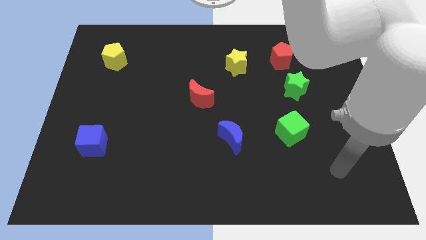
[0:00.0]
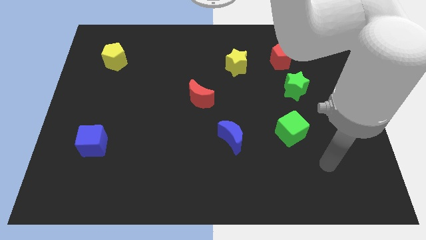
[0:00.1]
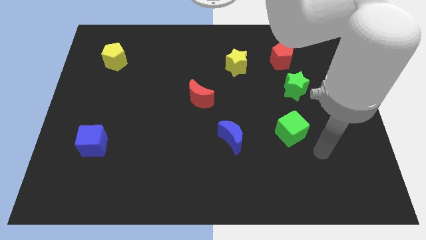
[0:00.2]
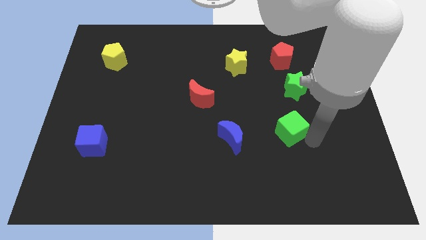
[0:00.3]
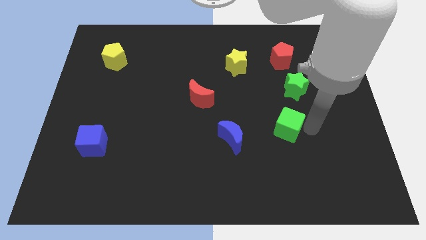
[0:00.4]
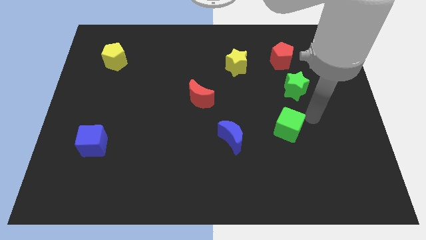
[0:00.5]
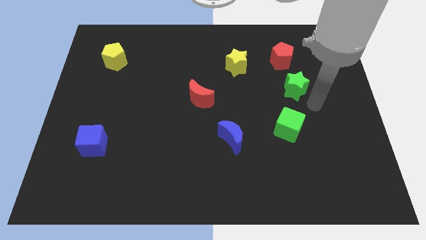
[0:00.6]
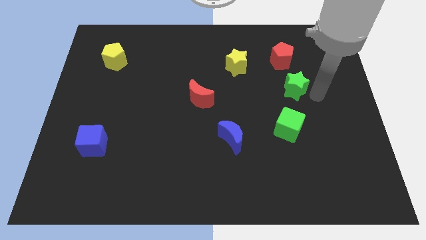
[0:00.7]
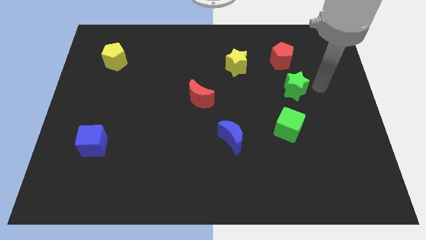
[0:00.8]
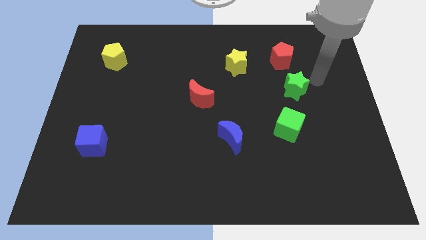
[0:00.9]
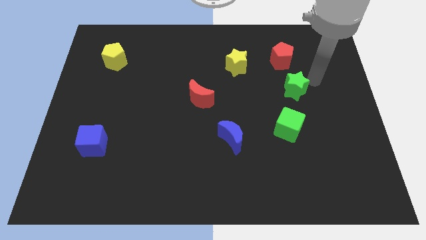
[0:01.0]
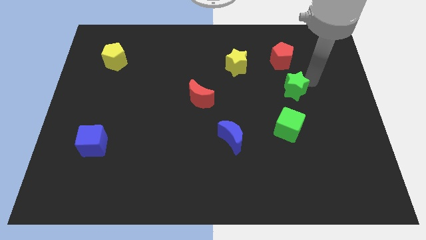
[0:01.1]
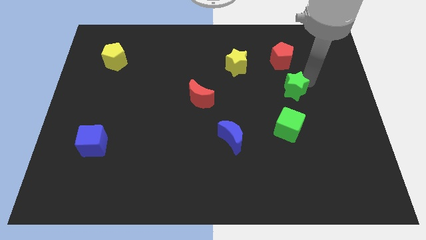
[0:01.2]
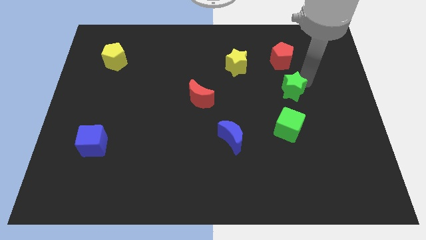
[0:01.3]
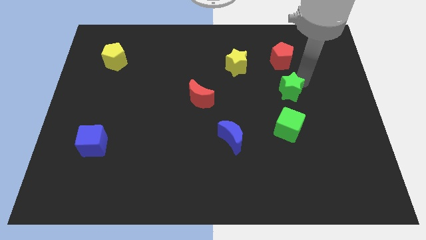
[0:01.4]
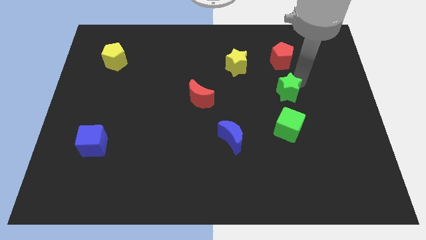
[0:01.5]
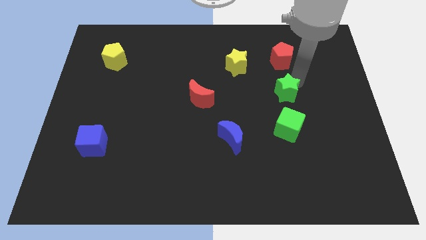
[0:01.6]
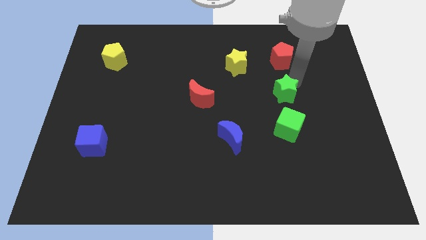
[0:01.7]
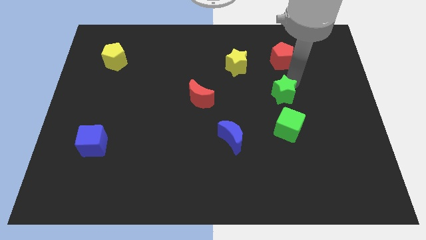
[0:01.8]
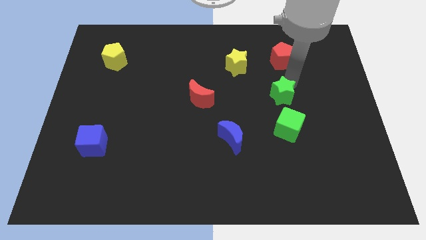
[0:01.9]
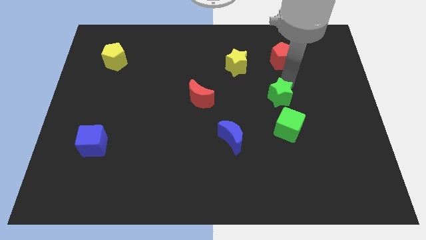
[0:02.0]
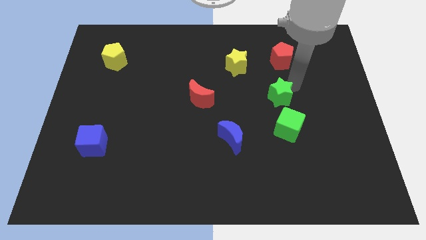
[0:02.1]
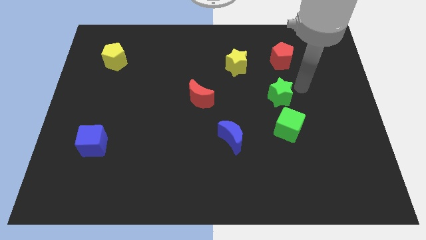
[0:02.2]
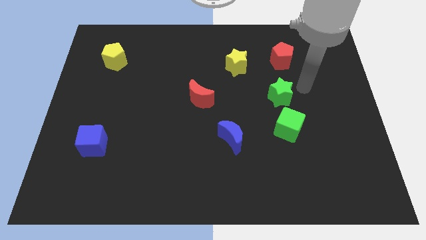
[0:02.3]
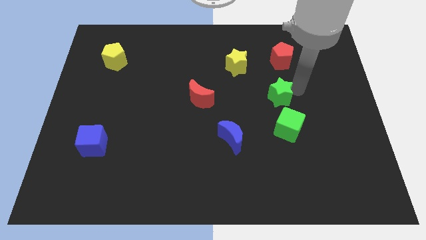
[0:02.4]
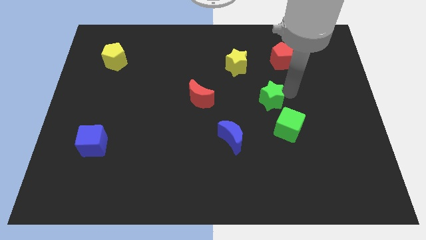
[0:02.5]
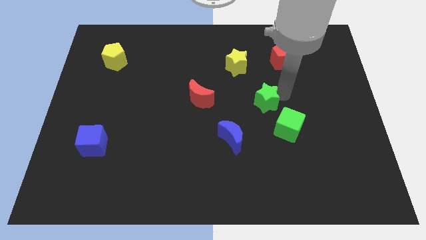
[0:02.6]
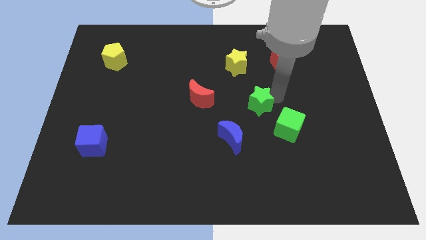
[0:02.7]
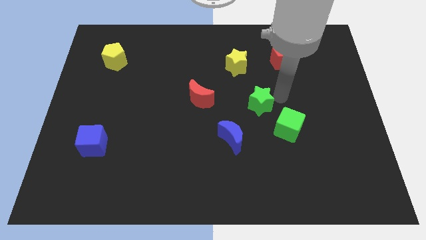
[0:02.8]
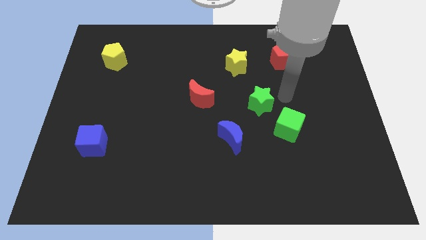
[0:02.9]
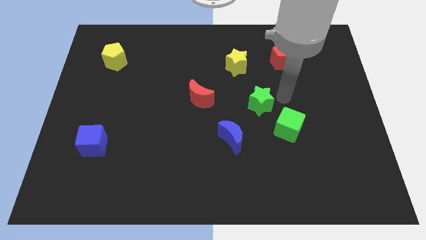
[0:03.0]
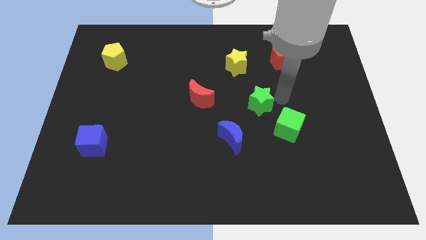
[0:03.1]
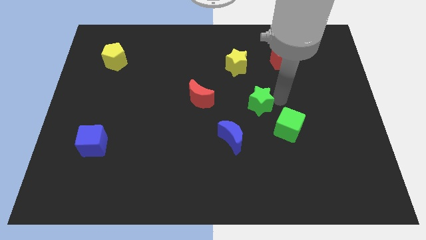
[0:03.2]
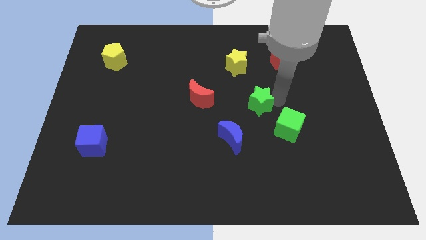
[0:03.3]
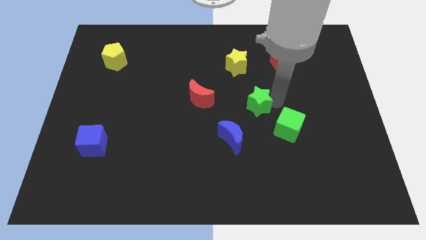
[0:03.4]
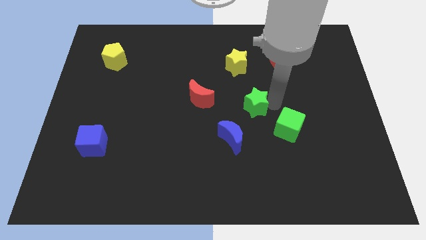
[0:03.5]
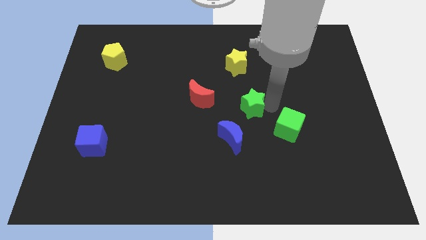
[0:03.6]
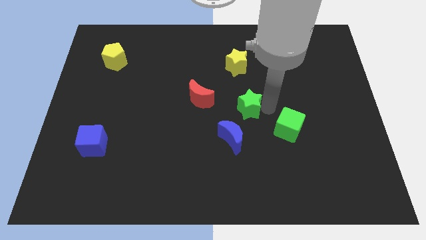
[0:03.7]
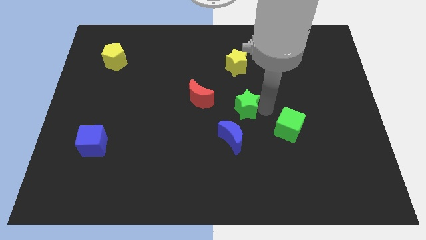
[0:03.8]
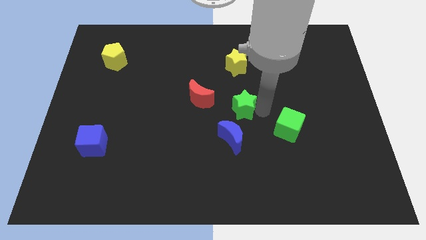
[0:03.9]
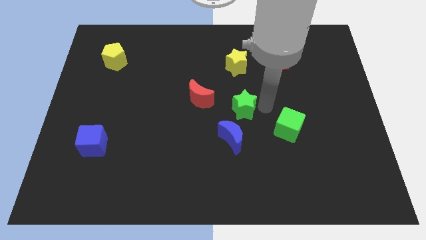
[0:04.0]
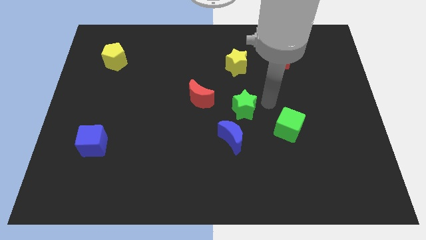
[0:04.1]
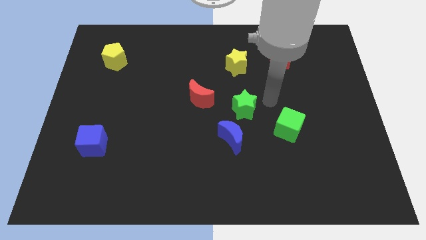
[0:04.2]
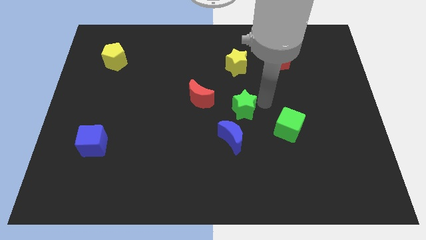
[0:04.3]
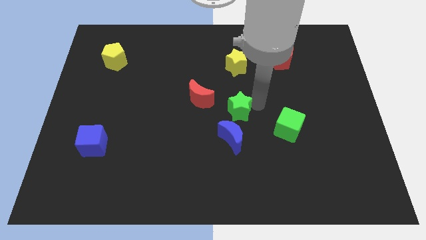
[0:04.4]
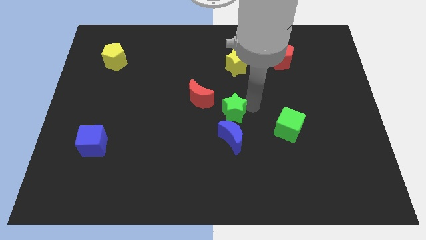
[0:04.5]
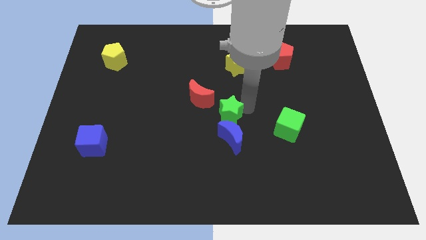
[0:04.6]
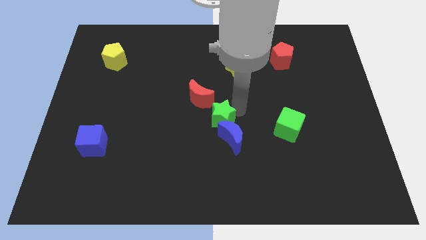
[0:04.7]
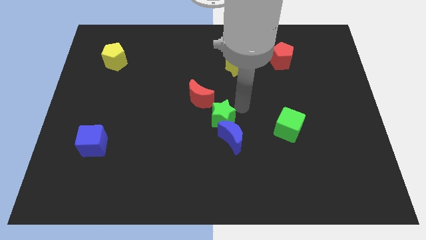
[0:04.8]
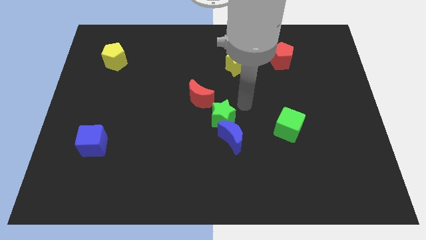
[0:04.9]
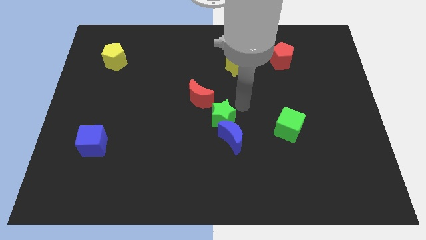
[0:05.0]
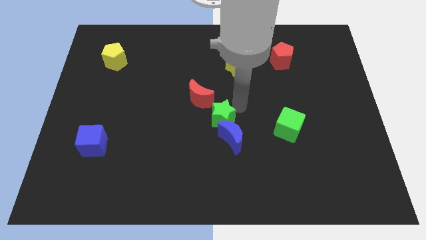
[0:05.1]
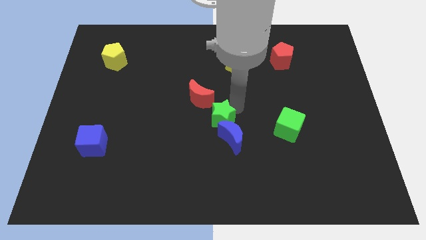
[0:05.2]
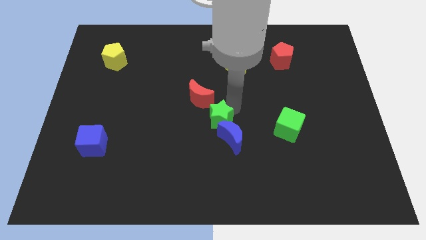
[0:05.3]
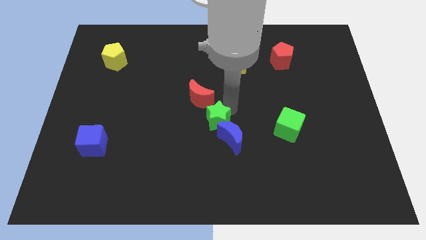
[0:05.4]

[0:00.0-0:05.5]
push the green star below the red moon

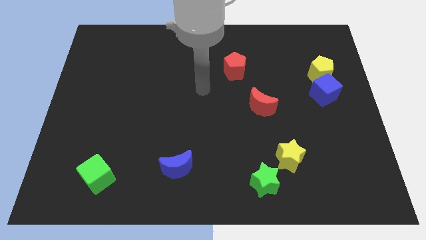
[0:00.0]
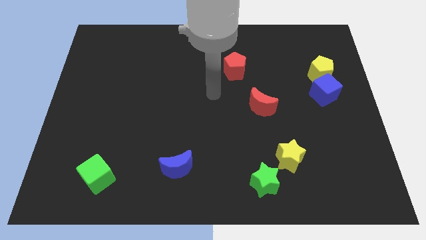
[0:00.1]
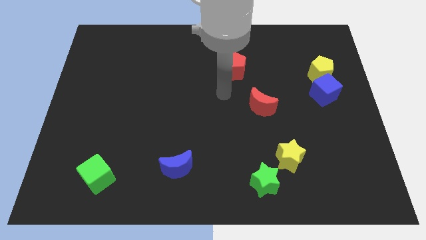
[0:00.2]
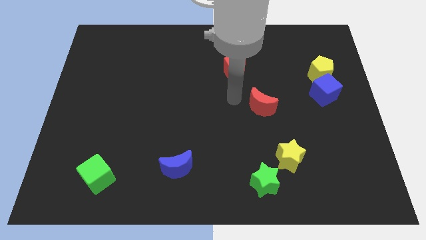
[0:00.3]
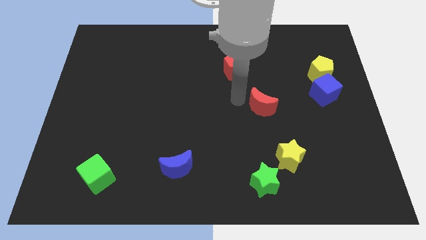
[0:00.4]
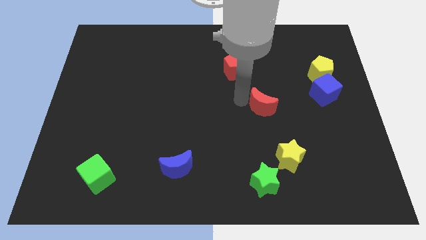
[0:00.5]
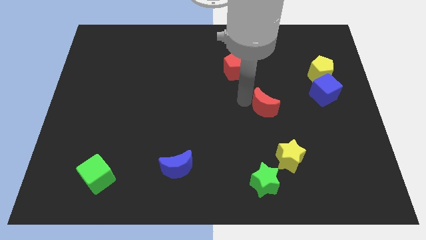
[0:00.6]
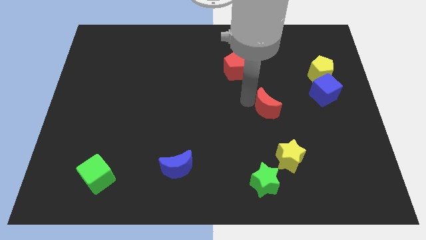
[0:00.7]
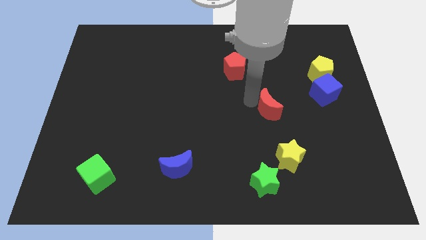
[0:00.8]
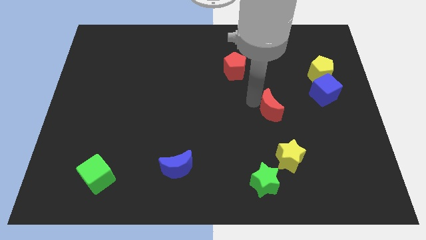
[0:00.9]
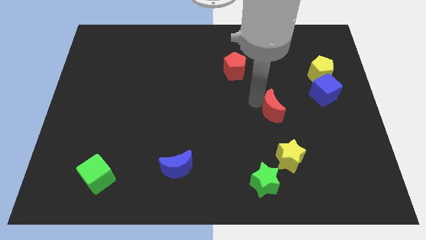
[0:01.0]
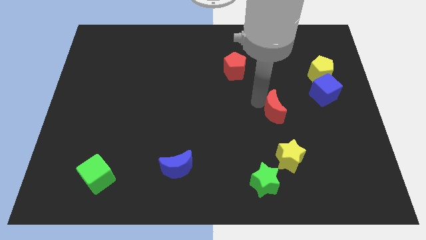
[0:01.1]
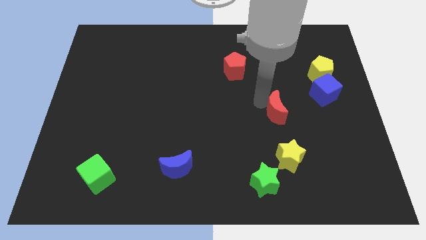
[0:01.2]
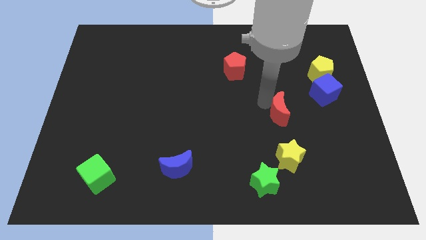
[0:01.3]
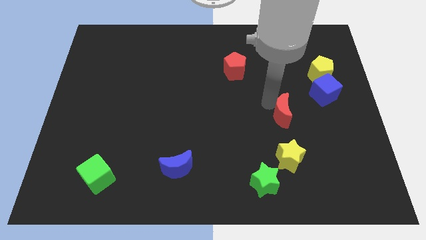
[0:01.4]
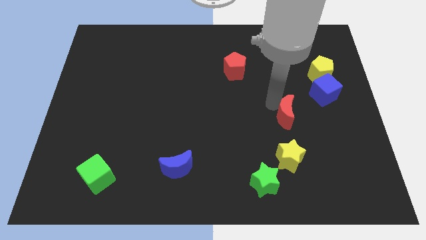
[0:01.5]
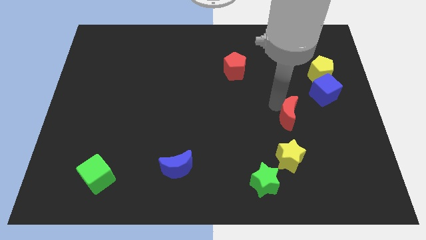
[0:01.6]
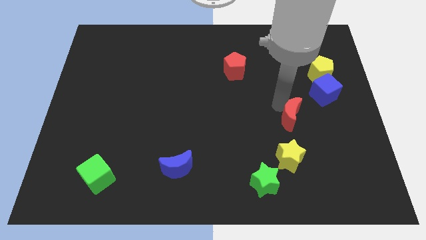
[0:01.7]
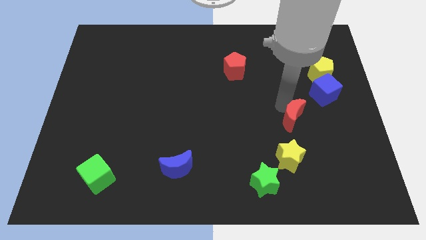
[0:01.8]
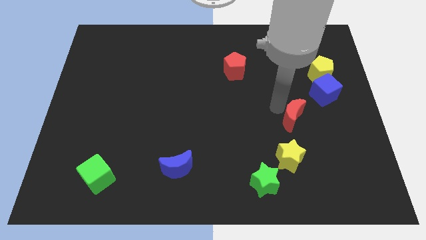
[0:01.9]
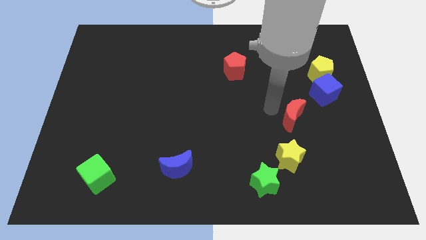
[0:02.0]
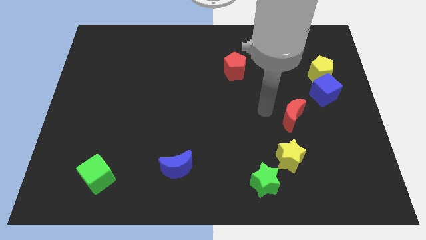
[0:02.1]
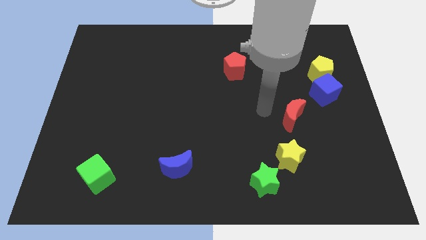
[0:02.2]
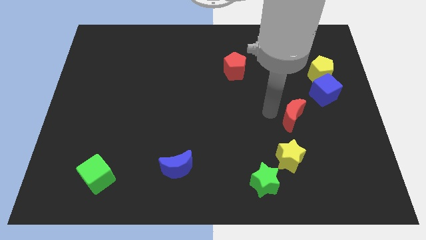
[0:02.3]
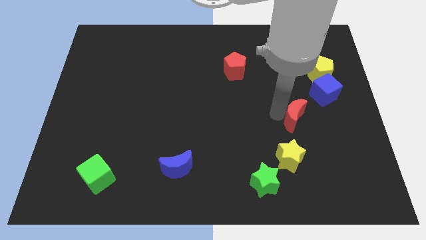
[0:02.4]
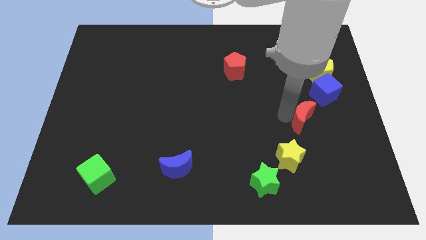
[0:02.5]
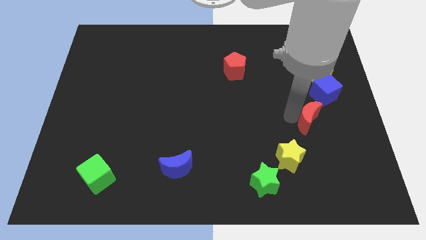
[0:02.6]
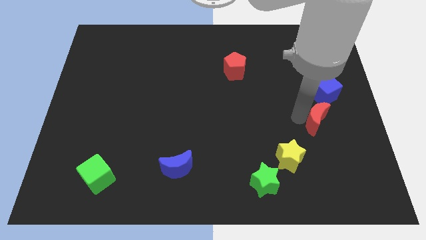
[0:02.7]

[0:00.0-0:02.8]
push the red moon to the bottom of the blue cube

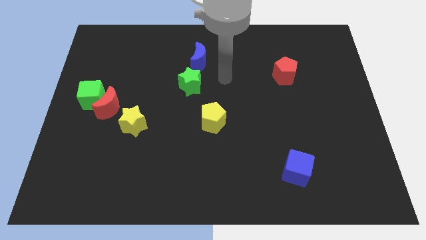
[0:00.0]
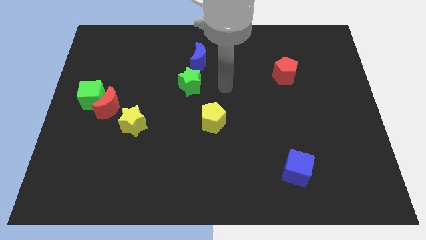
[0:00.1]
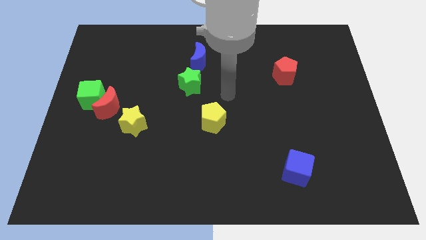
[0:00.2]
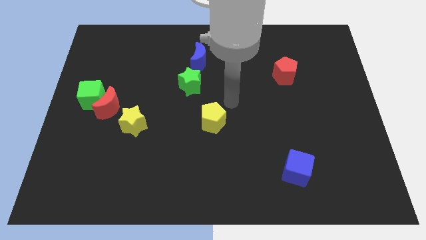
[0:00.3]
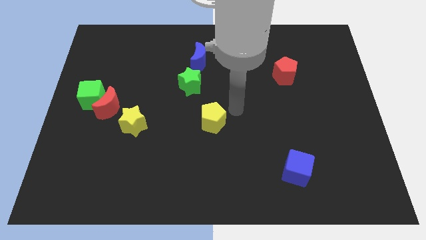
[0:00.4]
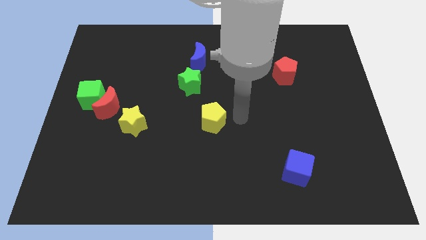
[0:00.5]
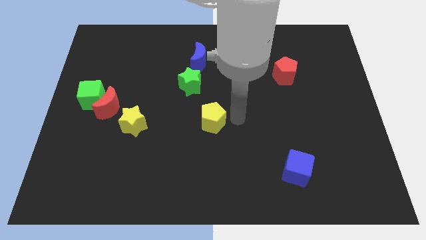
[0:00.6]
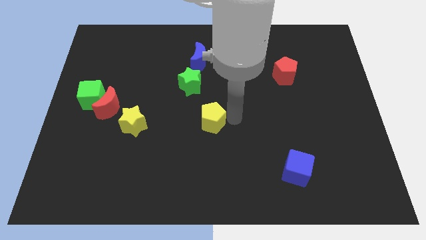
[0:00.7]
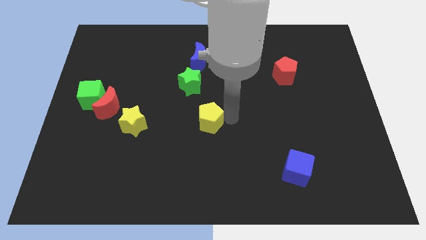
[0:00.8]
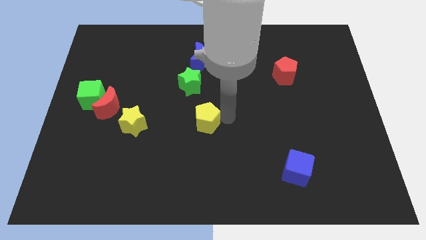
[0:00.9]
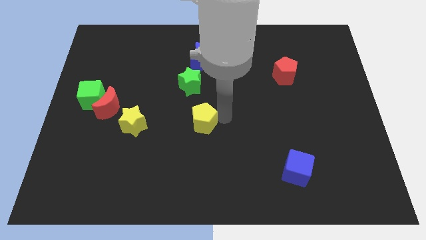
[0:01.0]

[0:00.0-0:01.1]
slide the yellow pentagon to the right side of the yellow star
